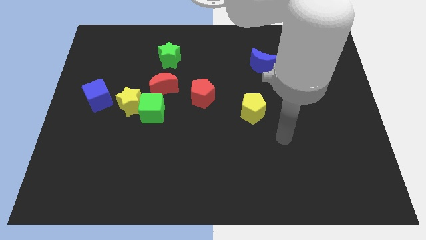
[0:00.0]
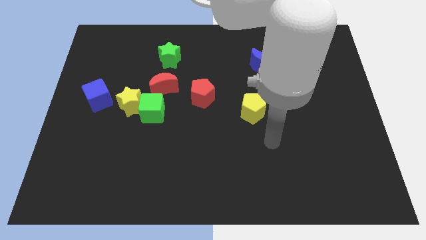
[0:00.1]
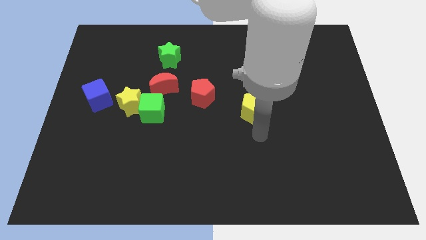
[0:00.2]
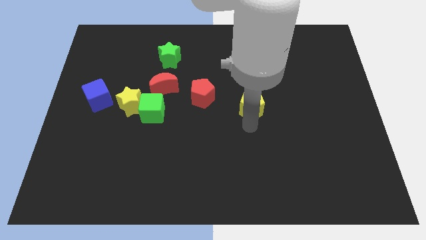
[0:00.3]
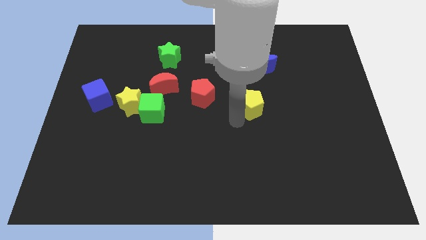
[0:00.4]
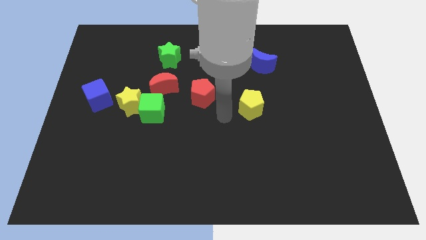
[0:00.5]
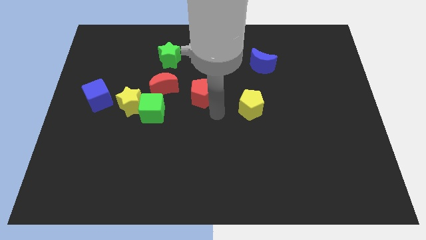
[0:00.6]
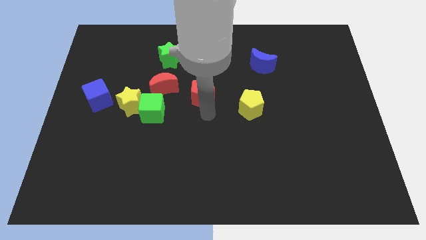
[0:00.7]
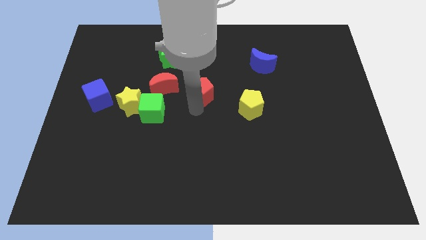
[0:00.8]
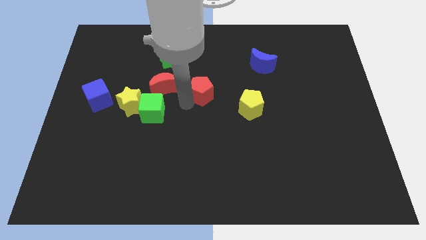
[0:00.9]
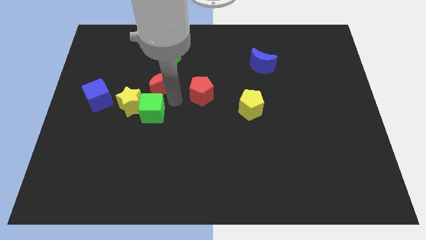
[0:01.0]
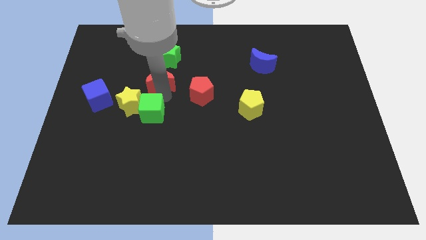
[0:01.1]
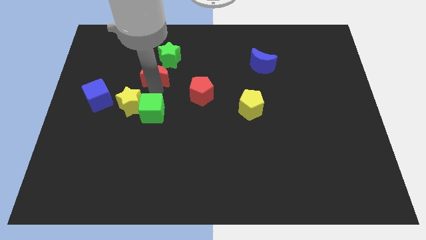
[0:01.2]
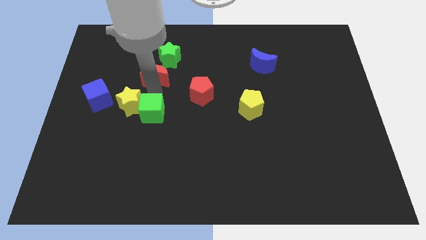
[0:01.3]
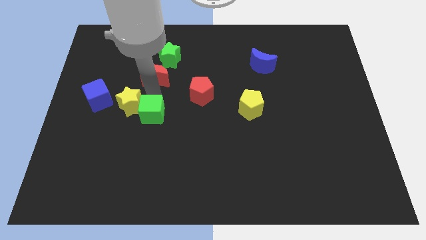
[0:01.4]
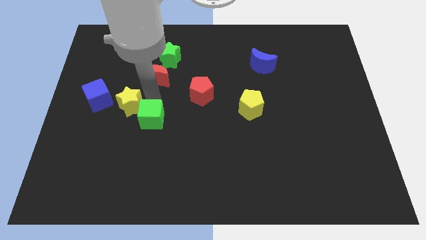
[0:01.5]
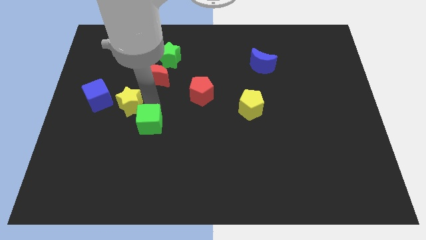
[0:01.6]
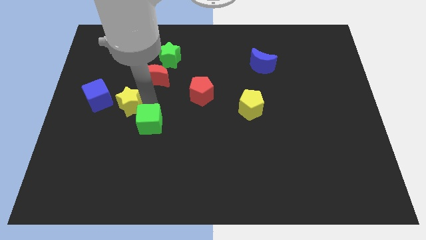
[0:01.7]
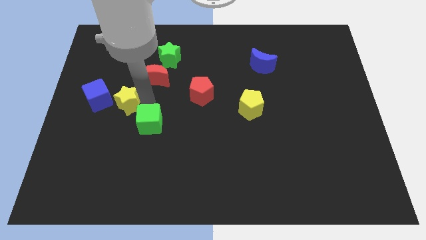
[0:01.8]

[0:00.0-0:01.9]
pull the green cube apart from the yellow star and red moon

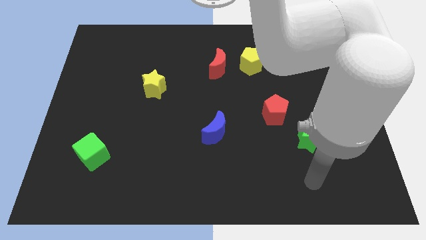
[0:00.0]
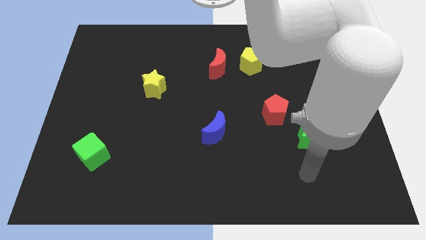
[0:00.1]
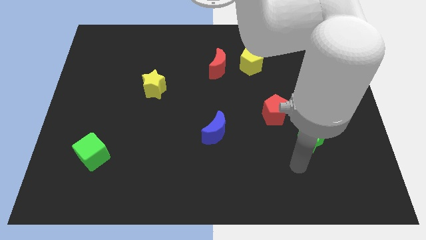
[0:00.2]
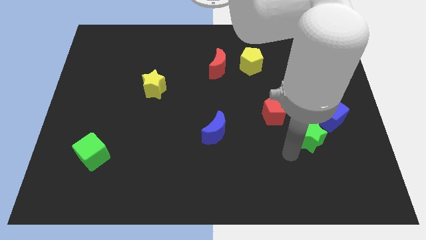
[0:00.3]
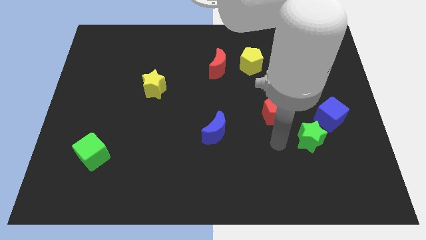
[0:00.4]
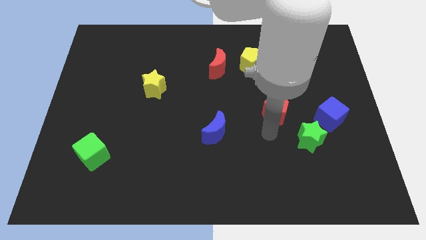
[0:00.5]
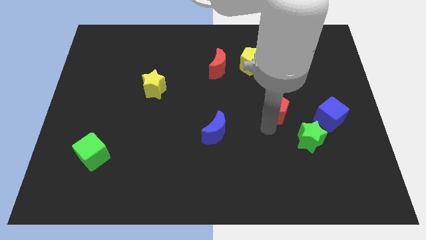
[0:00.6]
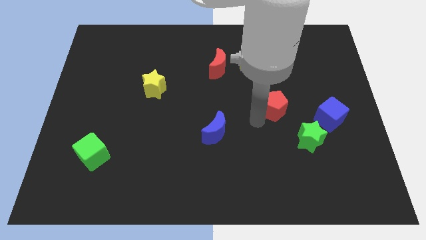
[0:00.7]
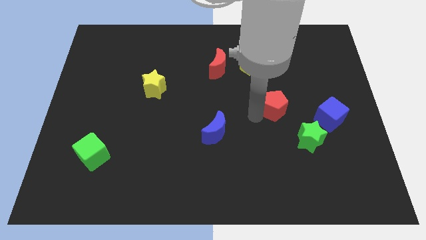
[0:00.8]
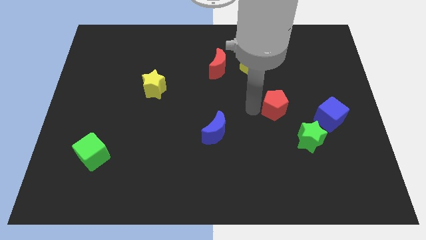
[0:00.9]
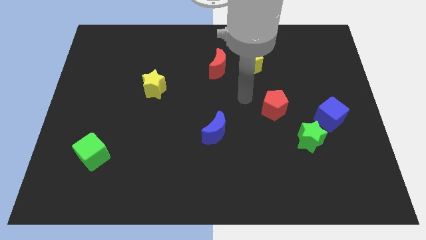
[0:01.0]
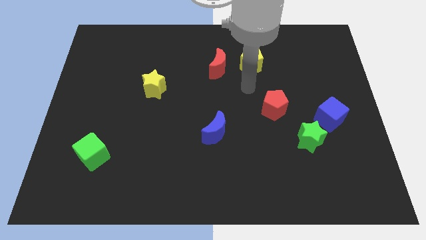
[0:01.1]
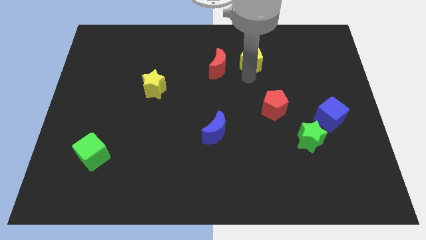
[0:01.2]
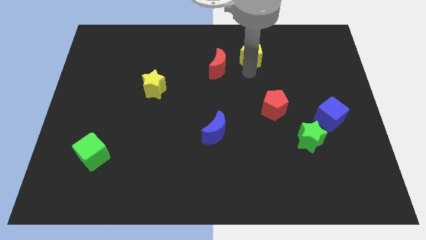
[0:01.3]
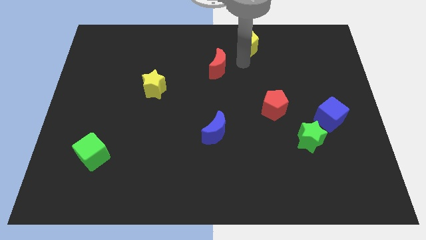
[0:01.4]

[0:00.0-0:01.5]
separate the red moon from the yellow pentagon

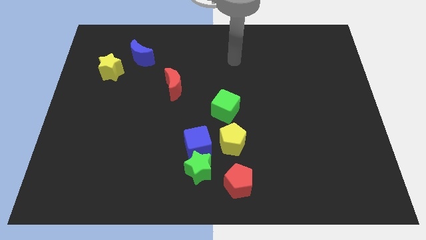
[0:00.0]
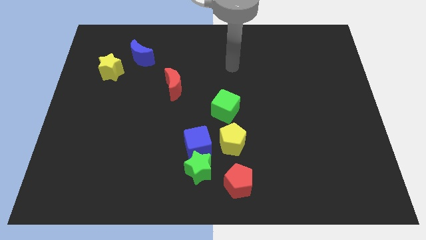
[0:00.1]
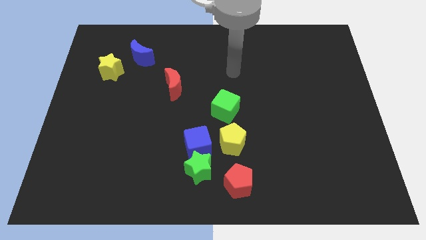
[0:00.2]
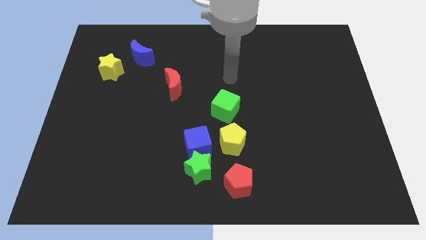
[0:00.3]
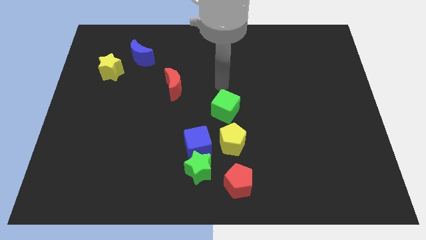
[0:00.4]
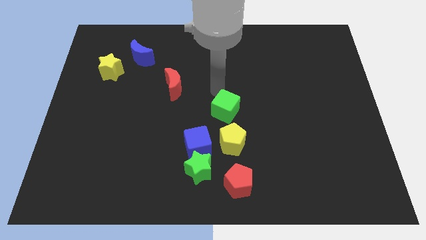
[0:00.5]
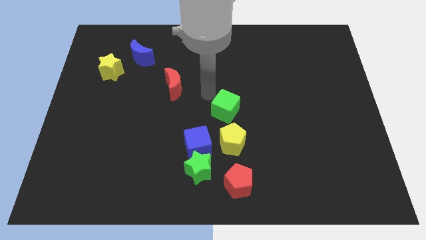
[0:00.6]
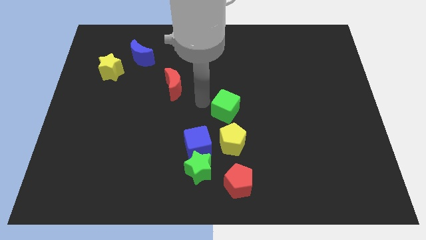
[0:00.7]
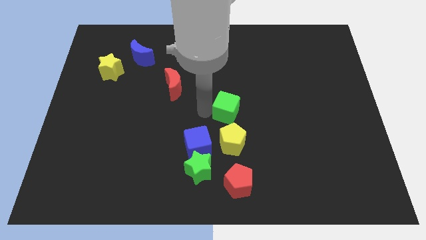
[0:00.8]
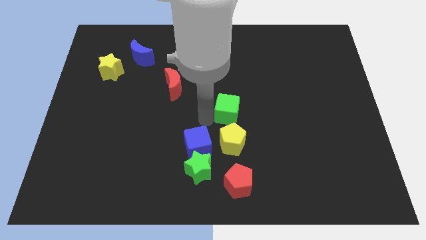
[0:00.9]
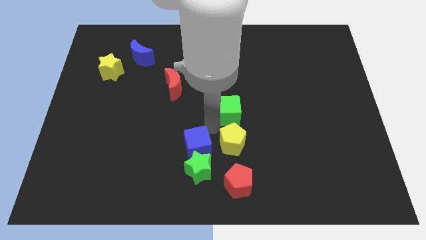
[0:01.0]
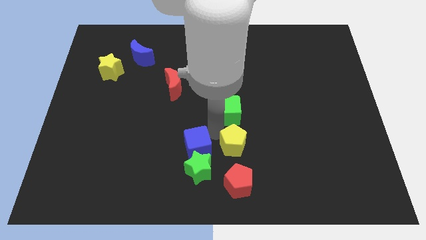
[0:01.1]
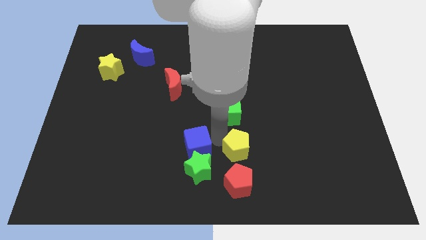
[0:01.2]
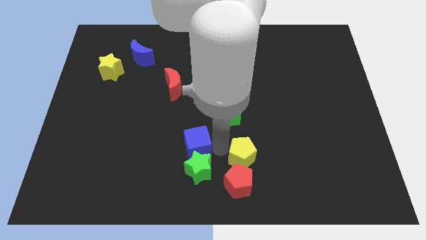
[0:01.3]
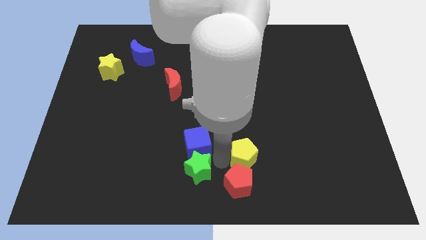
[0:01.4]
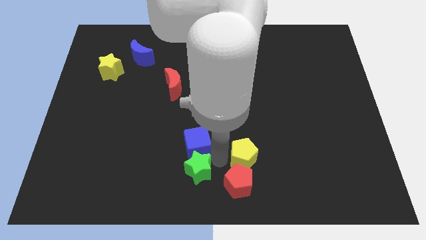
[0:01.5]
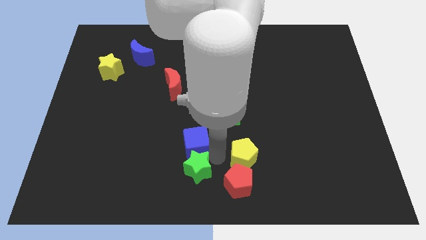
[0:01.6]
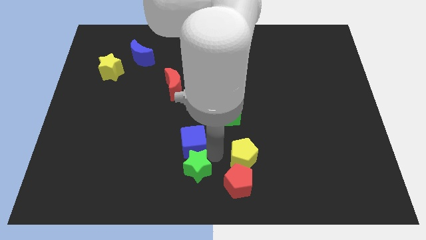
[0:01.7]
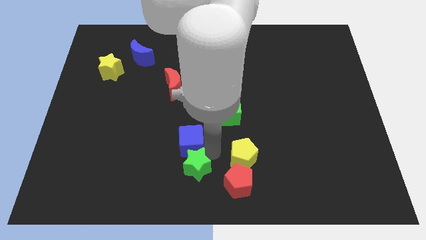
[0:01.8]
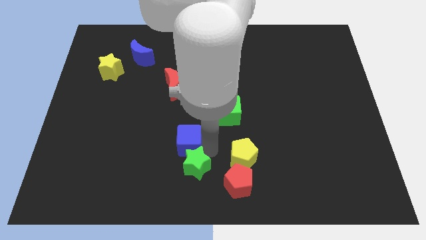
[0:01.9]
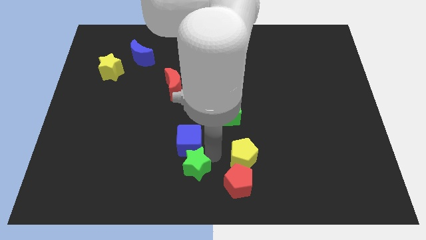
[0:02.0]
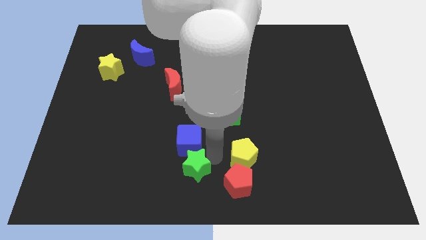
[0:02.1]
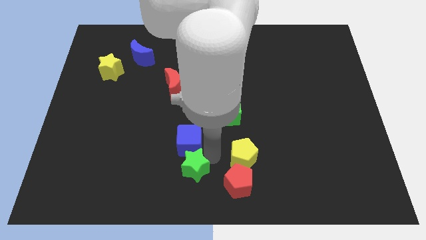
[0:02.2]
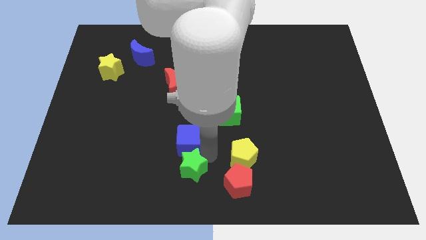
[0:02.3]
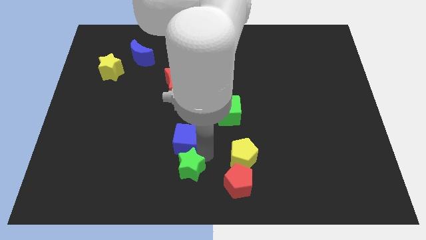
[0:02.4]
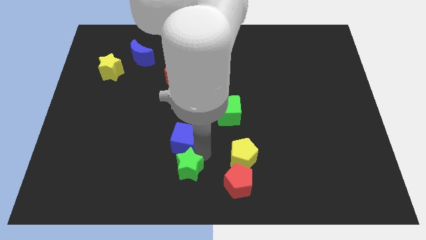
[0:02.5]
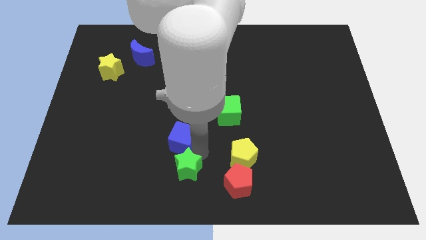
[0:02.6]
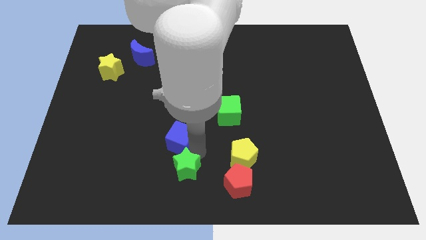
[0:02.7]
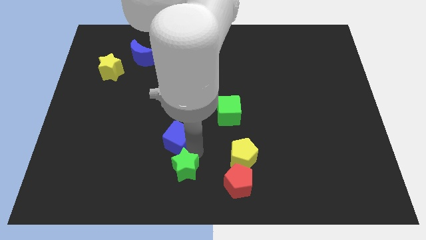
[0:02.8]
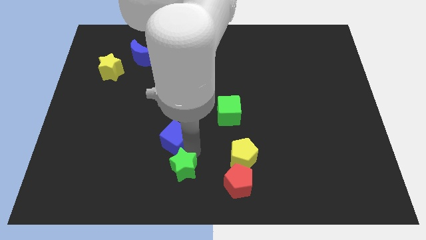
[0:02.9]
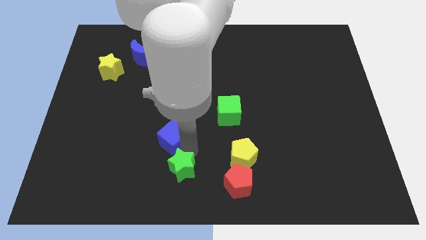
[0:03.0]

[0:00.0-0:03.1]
pull the blue cube apart from the green star and yellow pentagon

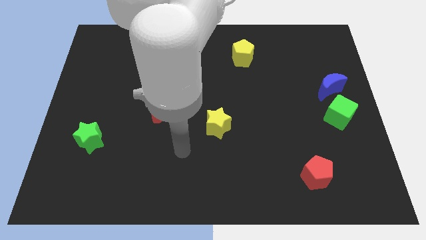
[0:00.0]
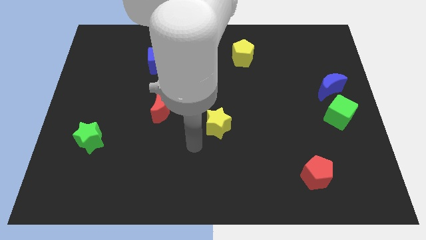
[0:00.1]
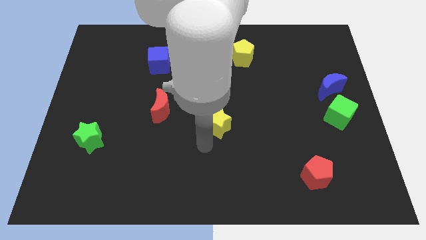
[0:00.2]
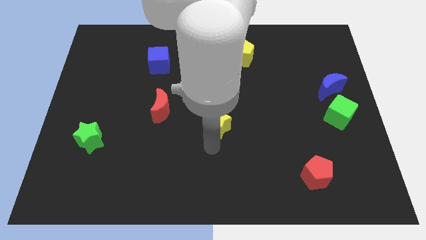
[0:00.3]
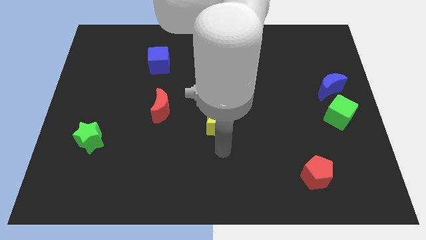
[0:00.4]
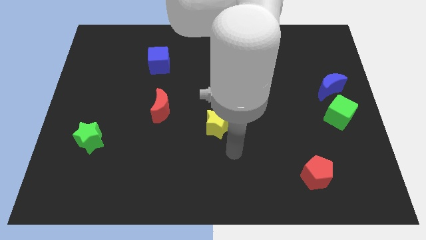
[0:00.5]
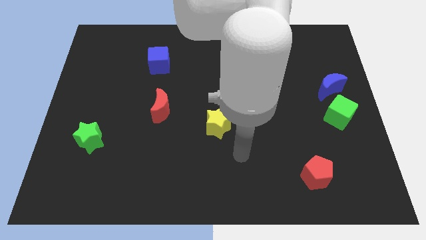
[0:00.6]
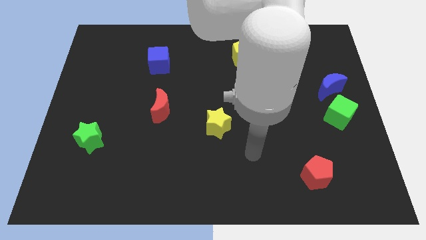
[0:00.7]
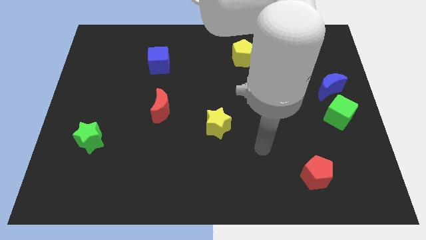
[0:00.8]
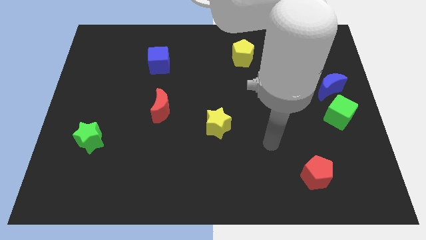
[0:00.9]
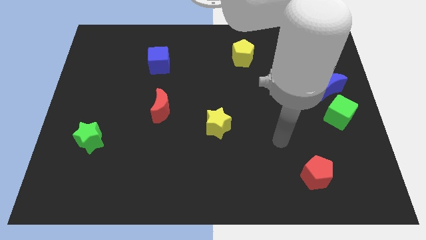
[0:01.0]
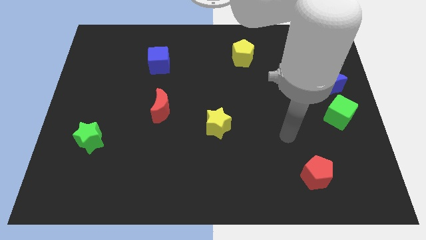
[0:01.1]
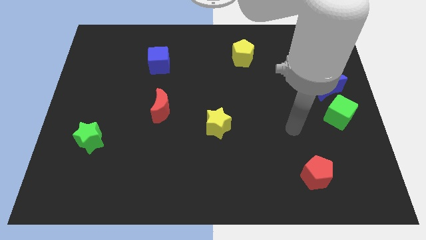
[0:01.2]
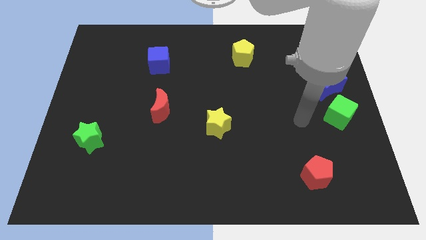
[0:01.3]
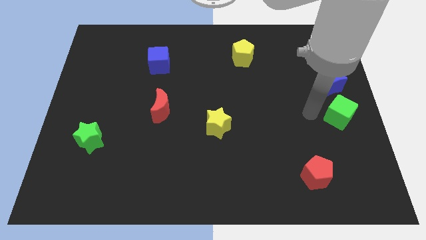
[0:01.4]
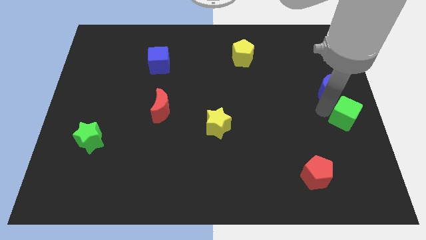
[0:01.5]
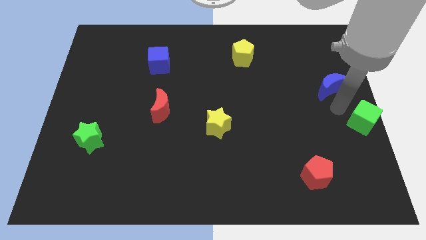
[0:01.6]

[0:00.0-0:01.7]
move the blue moon away from the green cube

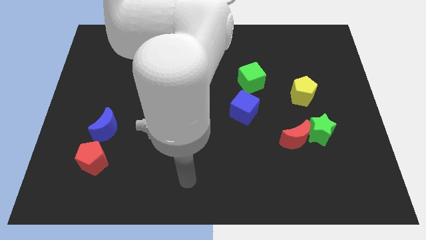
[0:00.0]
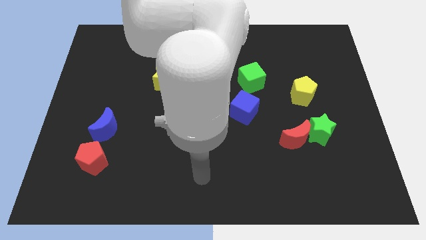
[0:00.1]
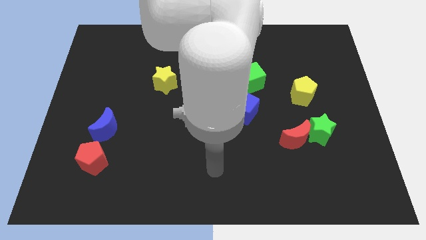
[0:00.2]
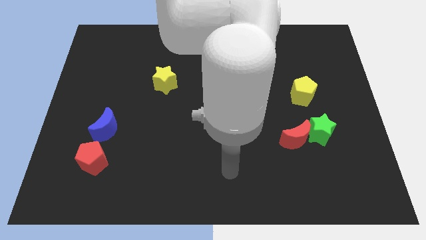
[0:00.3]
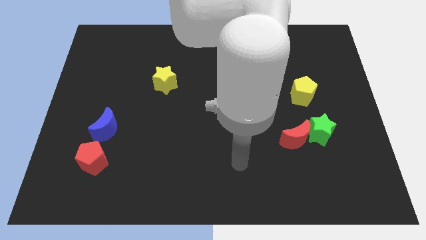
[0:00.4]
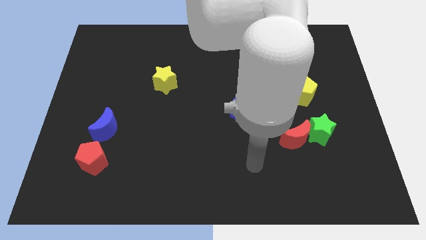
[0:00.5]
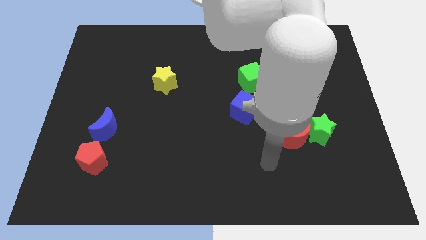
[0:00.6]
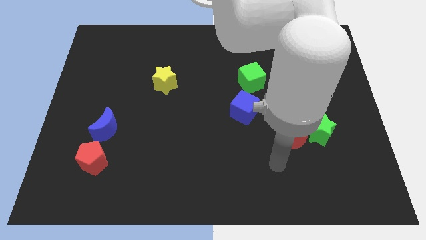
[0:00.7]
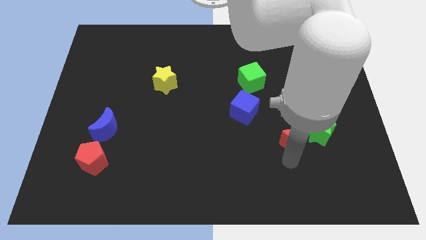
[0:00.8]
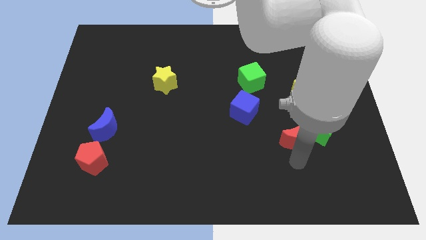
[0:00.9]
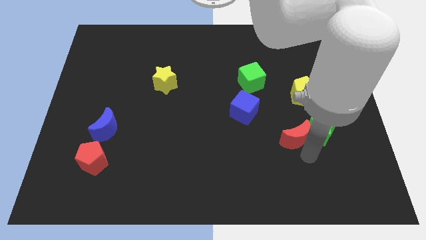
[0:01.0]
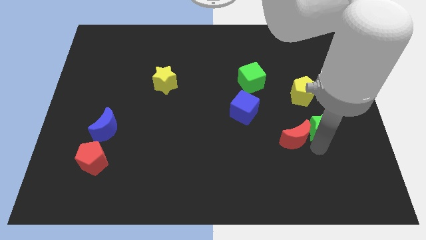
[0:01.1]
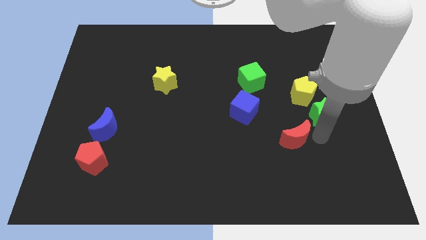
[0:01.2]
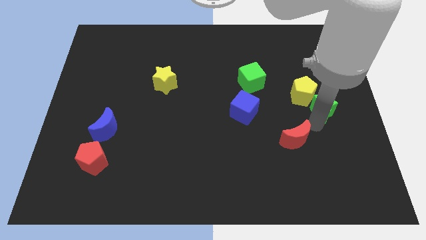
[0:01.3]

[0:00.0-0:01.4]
pull the red moon apart from the green star
